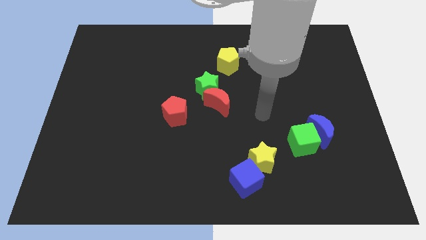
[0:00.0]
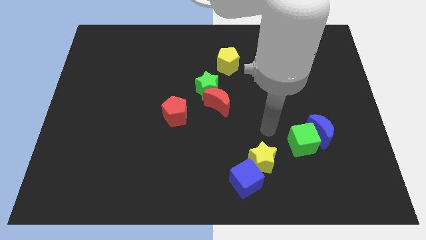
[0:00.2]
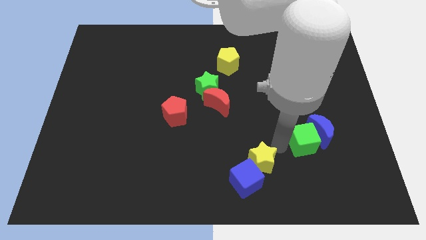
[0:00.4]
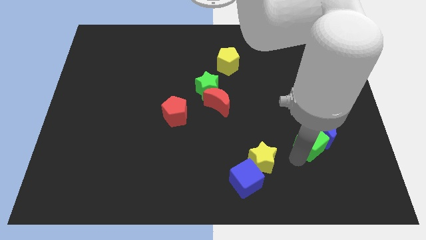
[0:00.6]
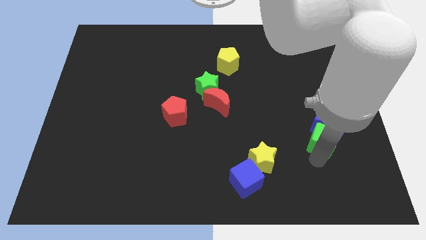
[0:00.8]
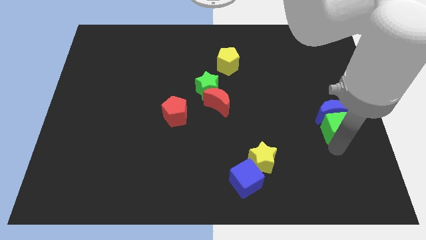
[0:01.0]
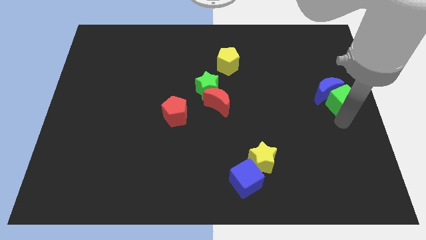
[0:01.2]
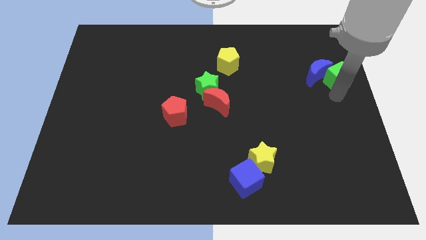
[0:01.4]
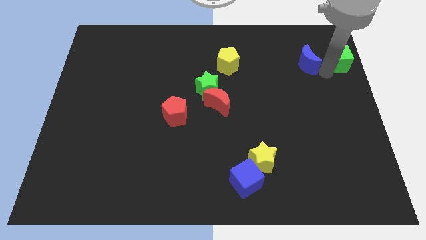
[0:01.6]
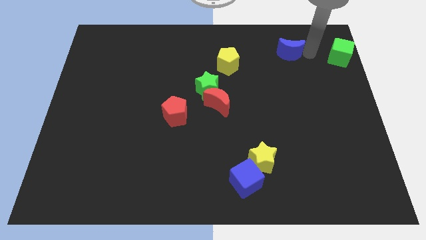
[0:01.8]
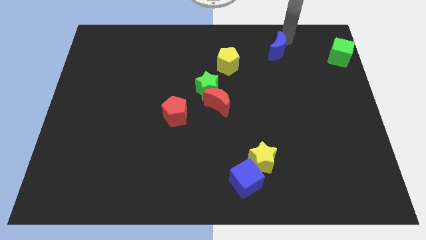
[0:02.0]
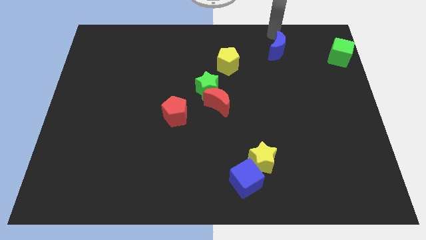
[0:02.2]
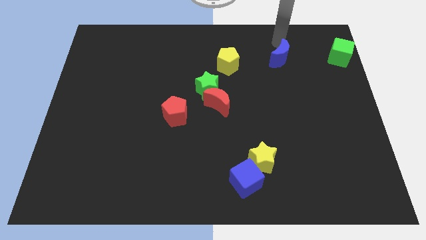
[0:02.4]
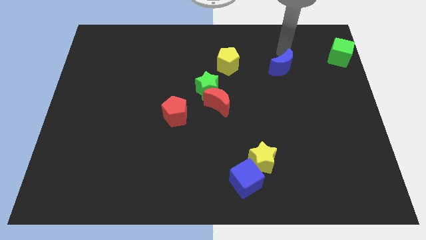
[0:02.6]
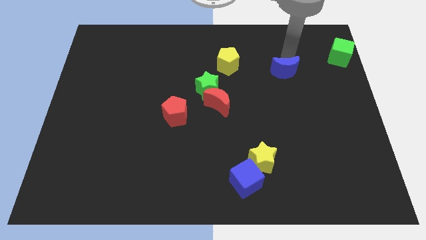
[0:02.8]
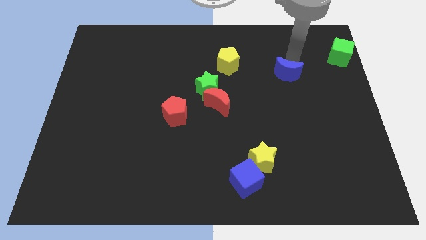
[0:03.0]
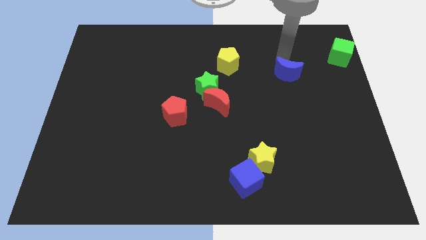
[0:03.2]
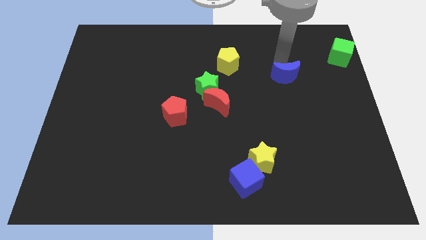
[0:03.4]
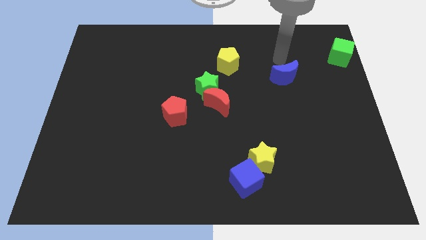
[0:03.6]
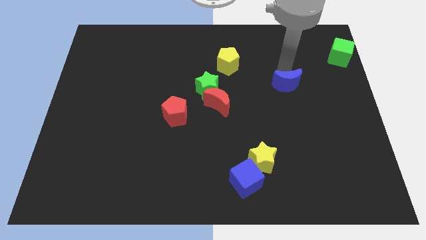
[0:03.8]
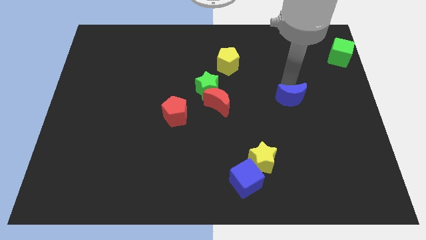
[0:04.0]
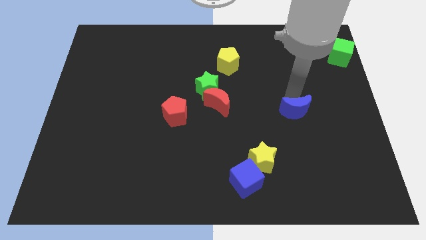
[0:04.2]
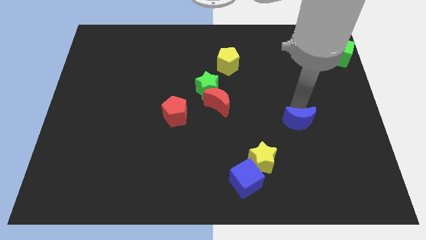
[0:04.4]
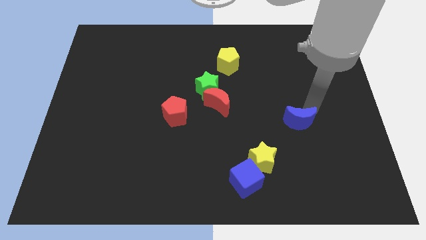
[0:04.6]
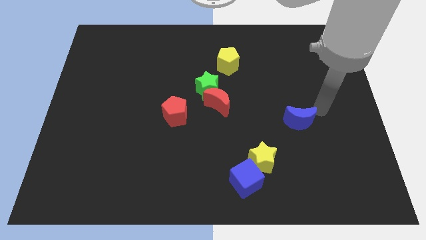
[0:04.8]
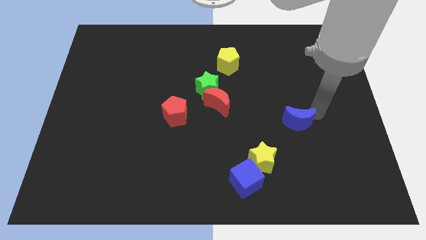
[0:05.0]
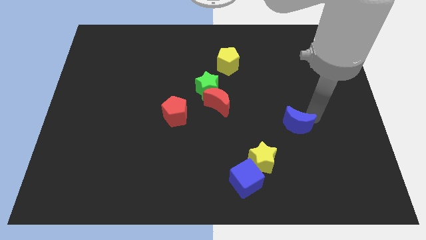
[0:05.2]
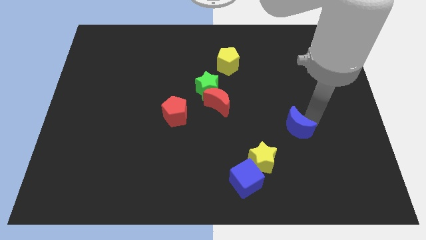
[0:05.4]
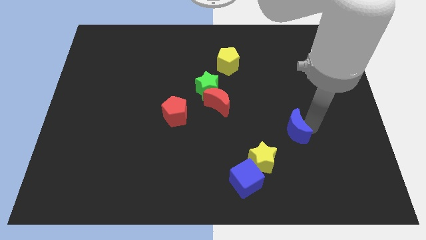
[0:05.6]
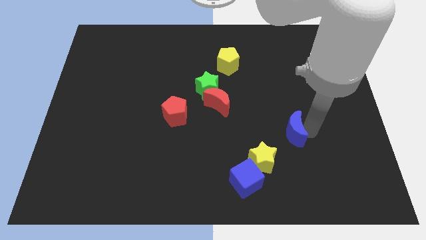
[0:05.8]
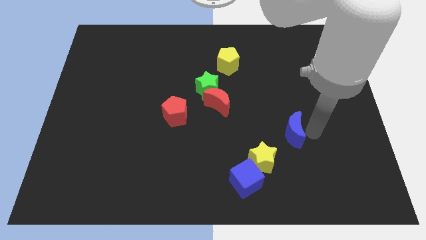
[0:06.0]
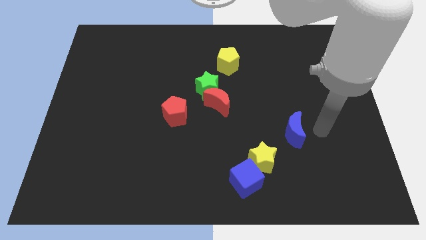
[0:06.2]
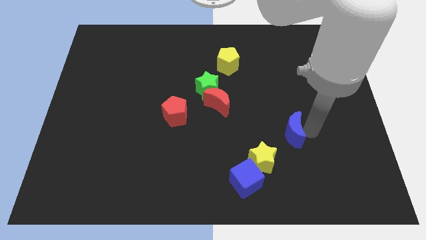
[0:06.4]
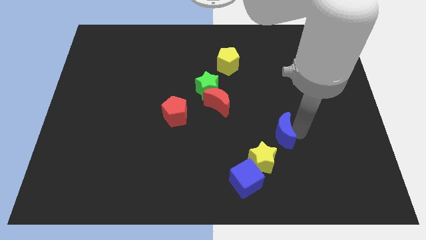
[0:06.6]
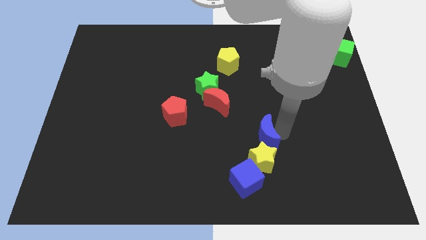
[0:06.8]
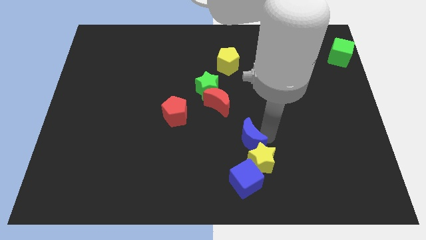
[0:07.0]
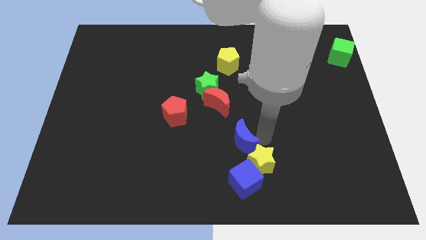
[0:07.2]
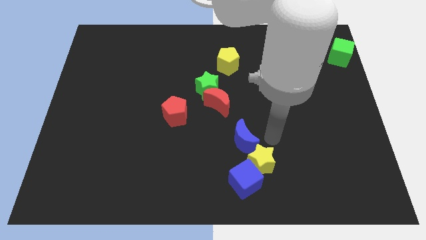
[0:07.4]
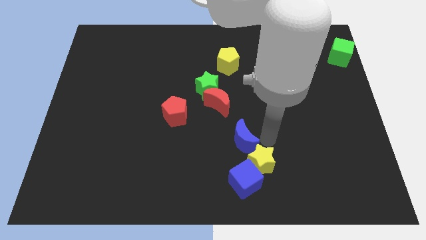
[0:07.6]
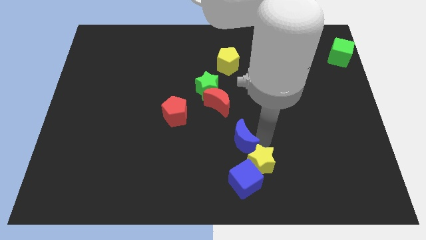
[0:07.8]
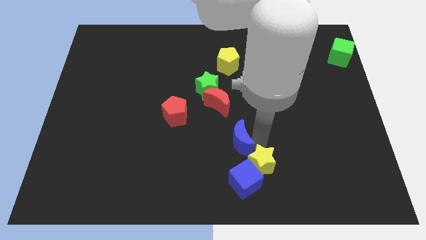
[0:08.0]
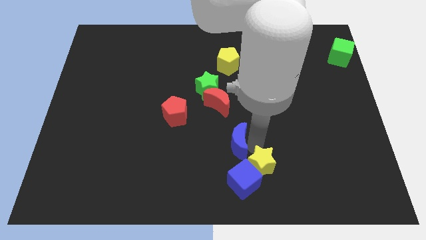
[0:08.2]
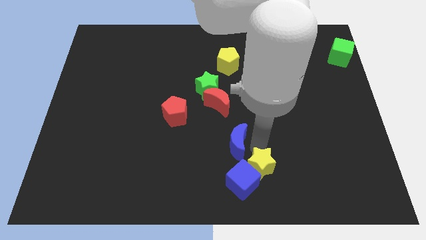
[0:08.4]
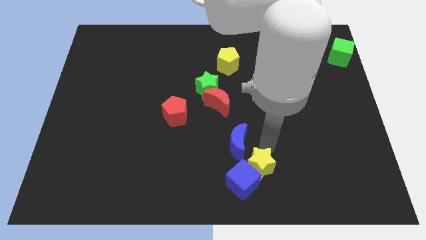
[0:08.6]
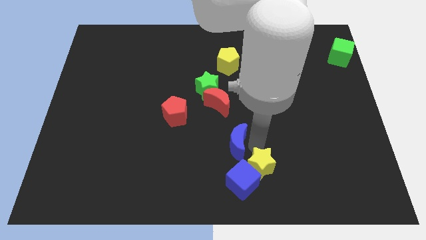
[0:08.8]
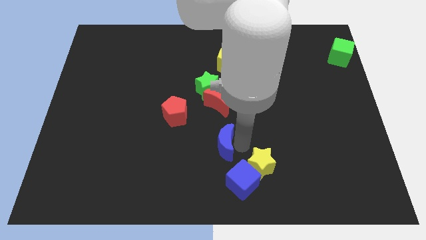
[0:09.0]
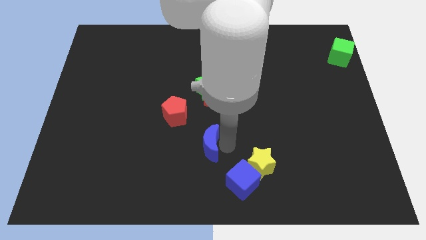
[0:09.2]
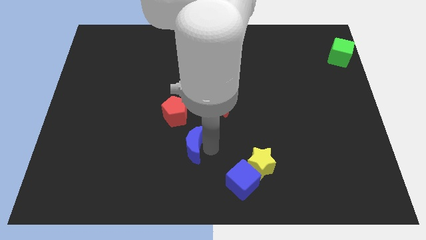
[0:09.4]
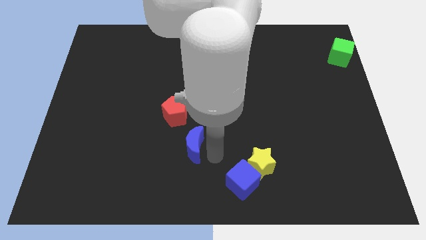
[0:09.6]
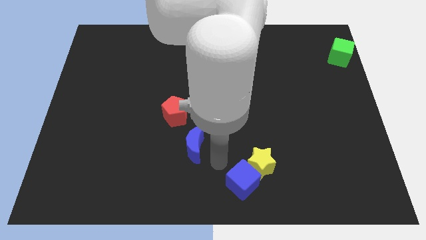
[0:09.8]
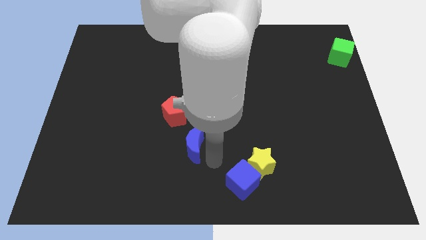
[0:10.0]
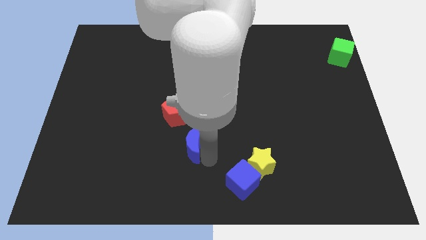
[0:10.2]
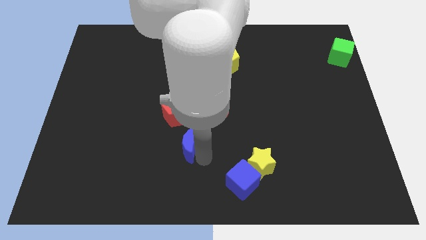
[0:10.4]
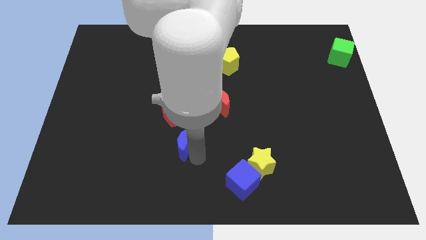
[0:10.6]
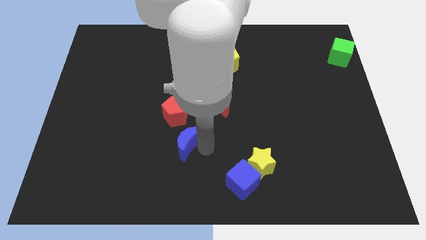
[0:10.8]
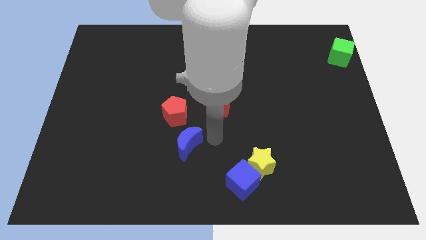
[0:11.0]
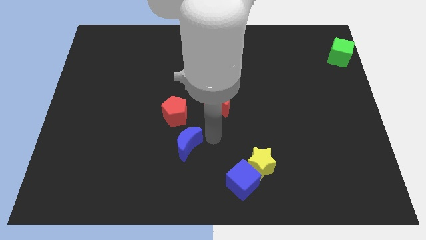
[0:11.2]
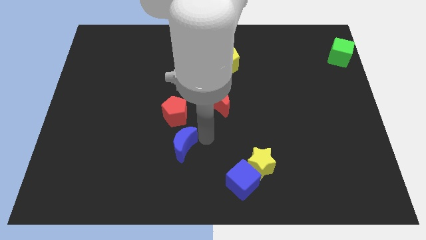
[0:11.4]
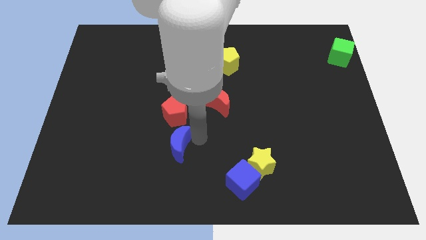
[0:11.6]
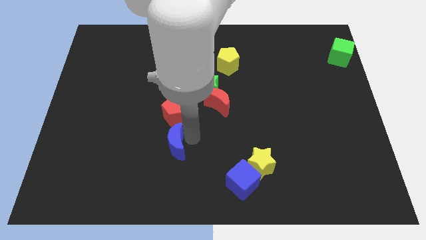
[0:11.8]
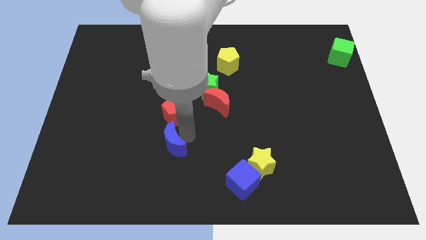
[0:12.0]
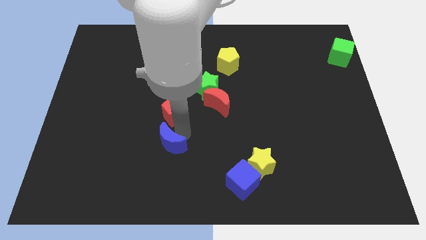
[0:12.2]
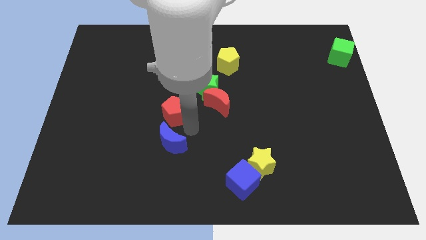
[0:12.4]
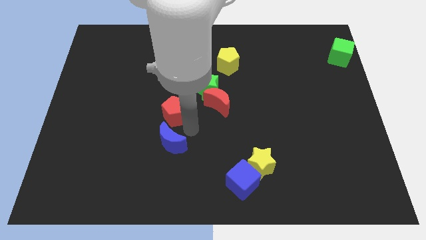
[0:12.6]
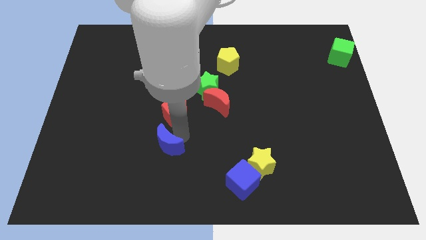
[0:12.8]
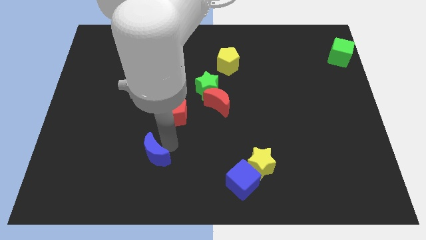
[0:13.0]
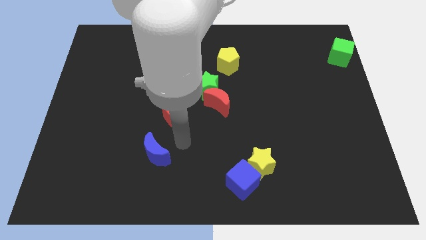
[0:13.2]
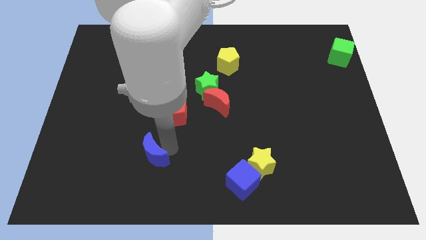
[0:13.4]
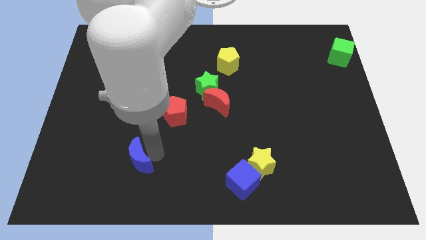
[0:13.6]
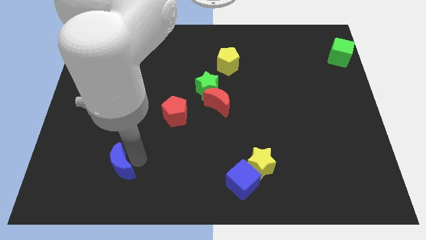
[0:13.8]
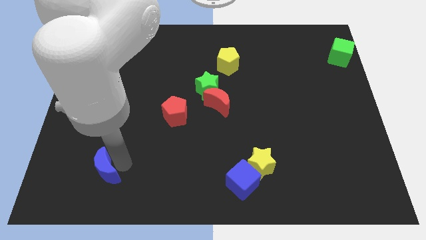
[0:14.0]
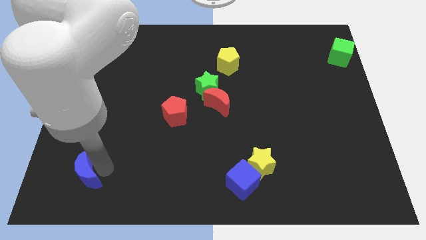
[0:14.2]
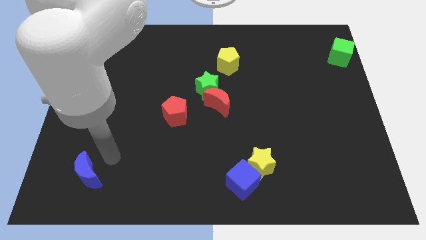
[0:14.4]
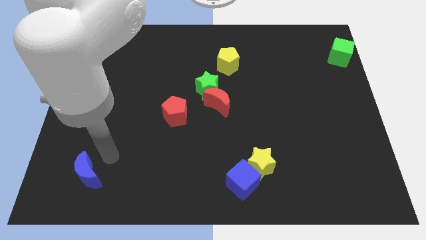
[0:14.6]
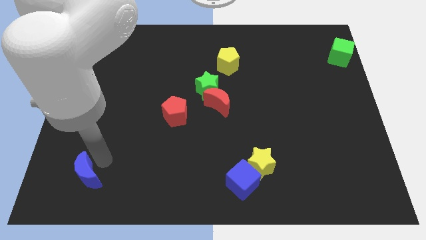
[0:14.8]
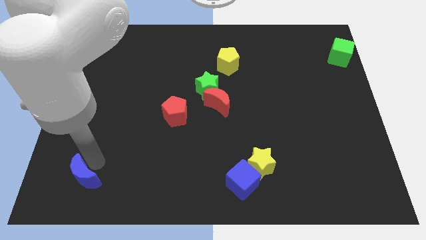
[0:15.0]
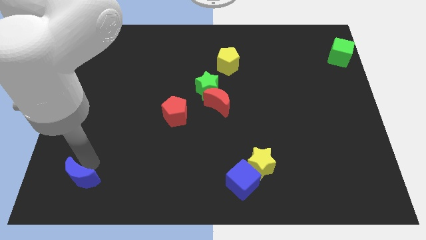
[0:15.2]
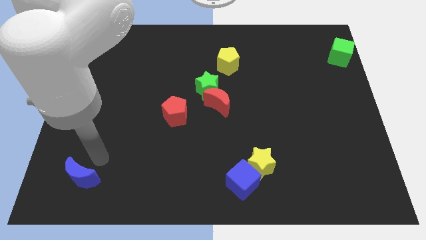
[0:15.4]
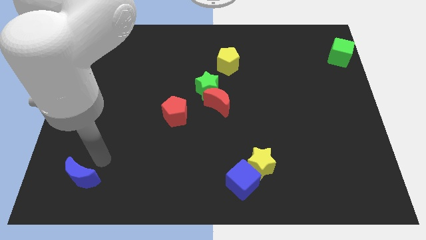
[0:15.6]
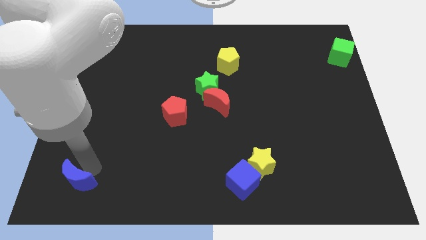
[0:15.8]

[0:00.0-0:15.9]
slide the blue moon to the bottom left of the board
